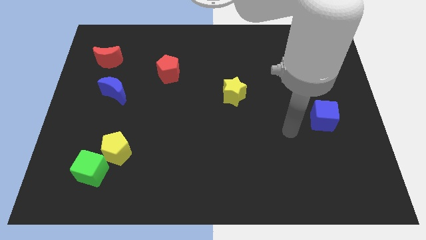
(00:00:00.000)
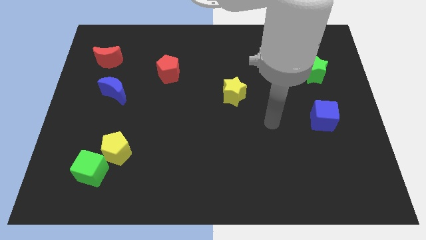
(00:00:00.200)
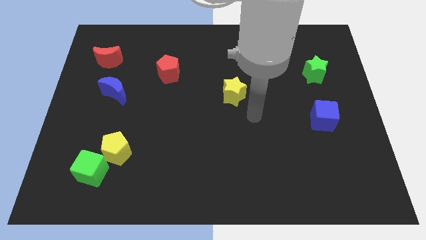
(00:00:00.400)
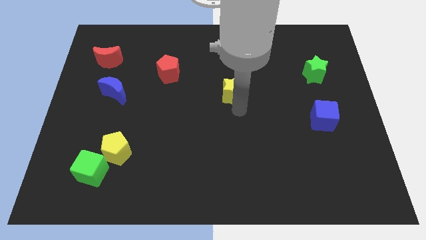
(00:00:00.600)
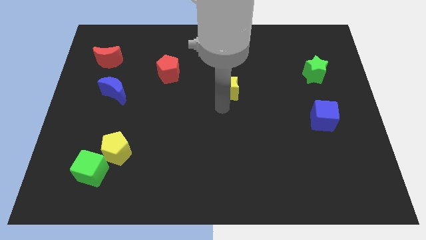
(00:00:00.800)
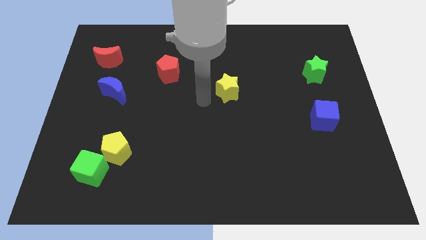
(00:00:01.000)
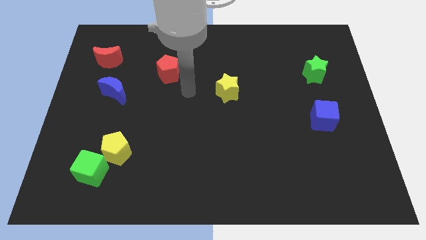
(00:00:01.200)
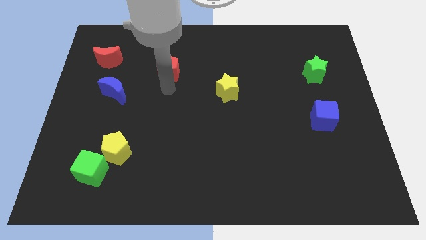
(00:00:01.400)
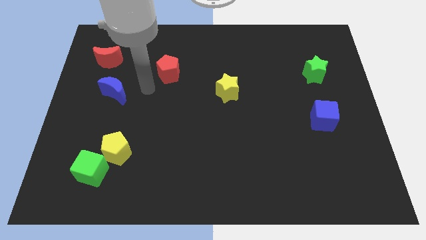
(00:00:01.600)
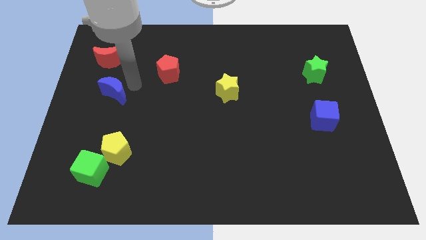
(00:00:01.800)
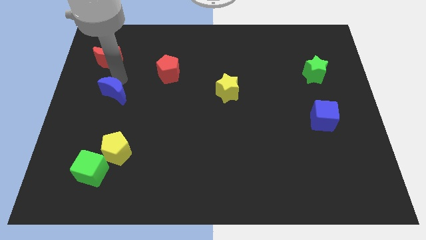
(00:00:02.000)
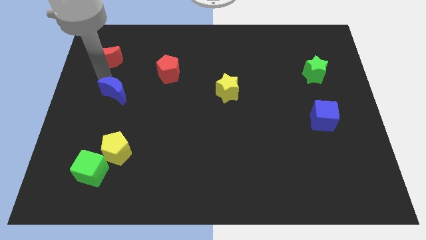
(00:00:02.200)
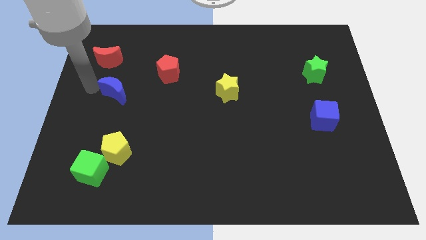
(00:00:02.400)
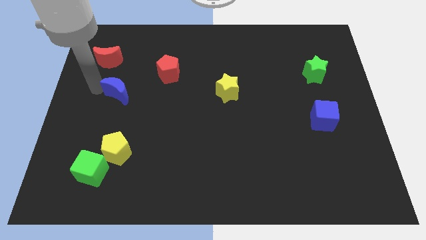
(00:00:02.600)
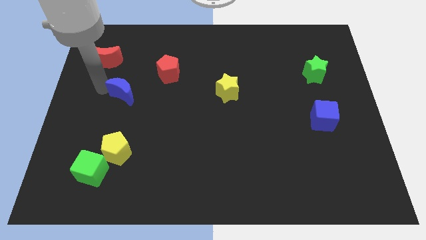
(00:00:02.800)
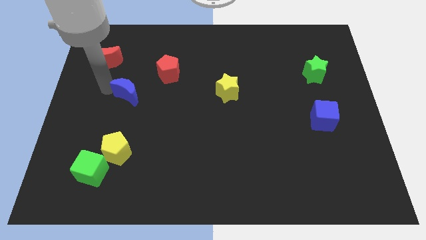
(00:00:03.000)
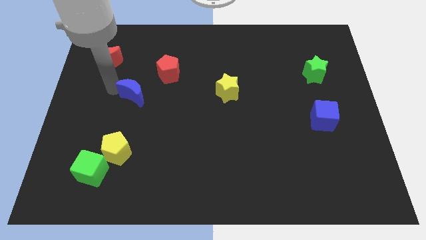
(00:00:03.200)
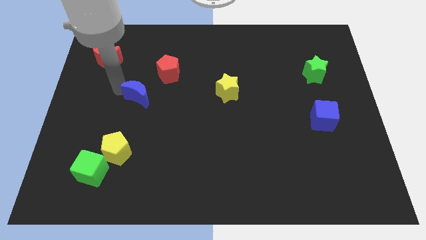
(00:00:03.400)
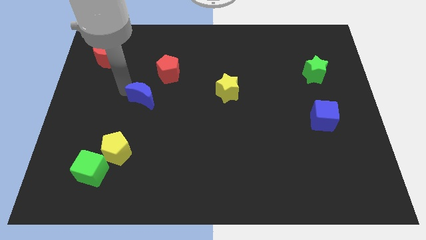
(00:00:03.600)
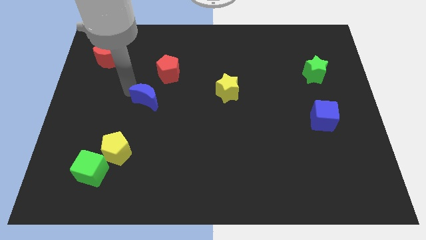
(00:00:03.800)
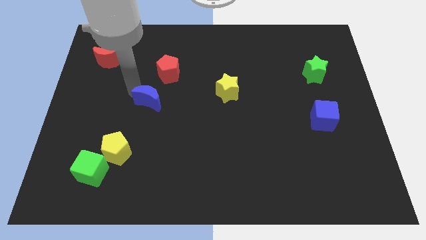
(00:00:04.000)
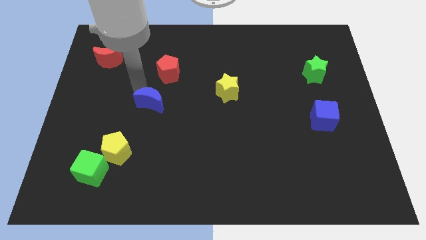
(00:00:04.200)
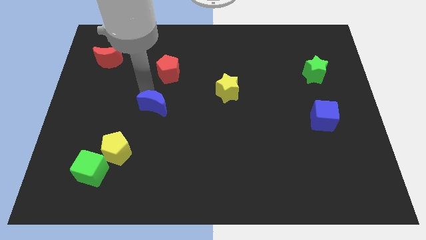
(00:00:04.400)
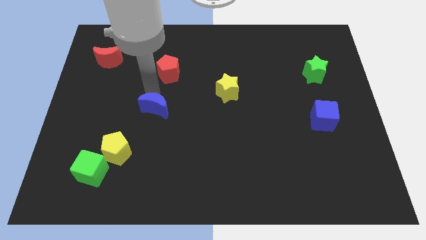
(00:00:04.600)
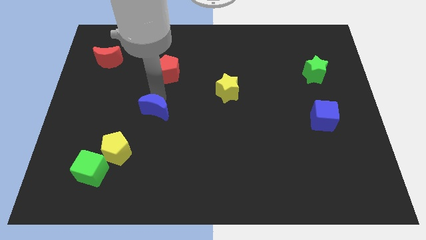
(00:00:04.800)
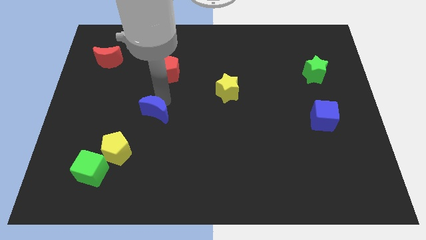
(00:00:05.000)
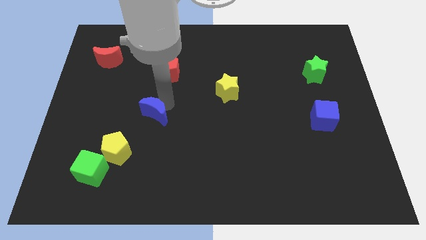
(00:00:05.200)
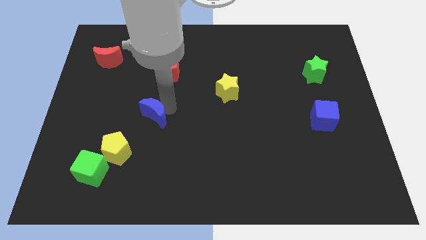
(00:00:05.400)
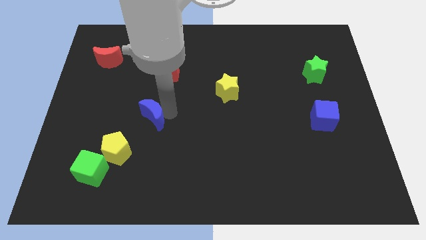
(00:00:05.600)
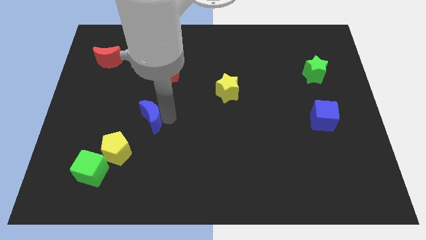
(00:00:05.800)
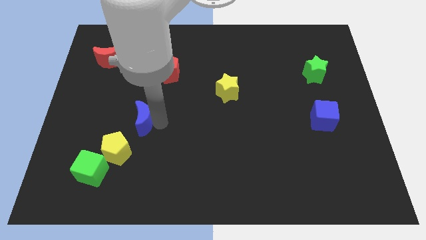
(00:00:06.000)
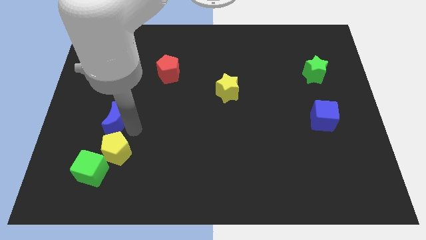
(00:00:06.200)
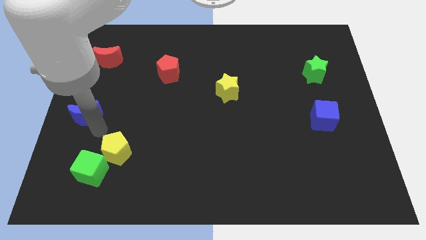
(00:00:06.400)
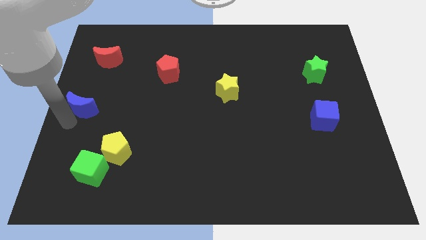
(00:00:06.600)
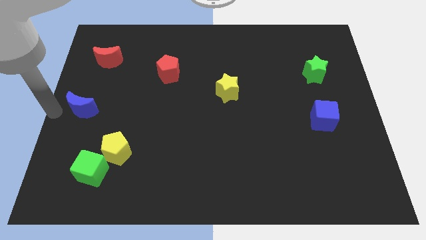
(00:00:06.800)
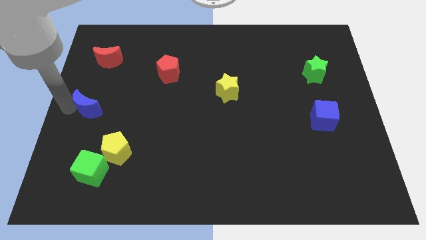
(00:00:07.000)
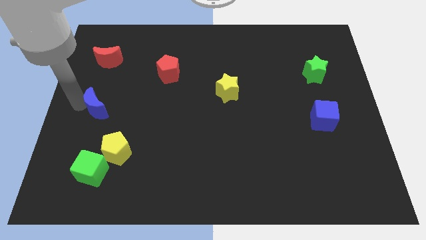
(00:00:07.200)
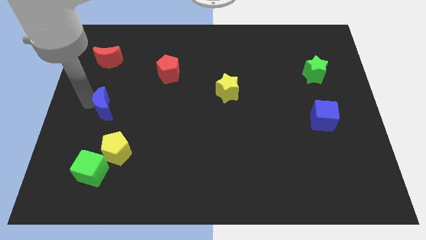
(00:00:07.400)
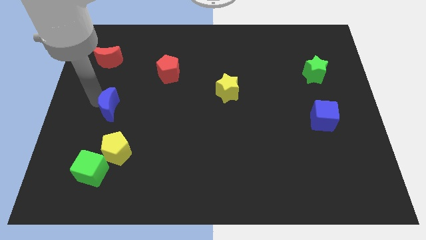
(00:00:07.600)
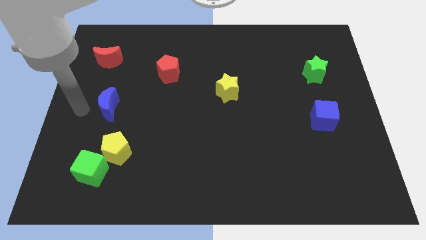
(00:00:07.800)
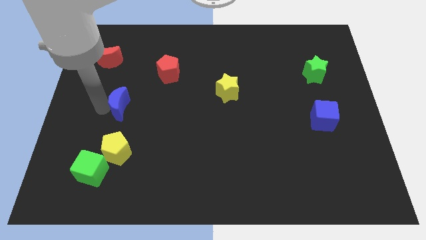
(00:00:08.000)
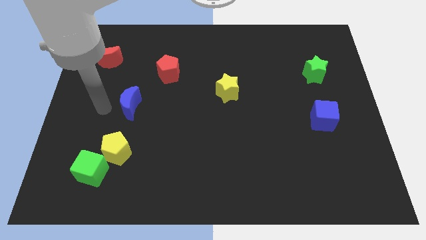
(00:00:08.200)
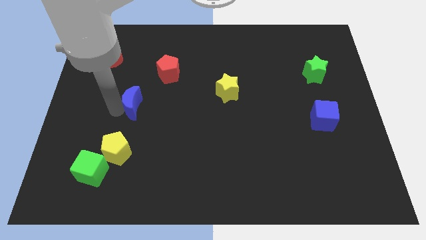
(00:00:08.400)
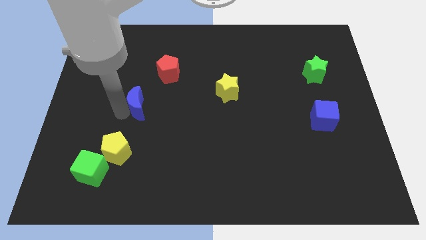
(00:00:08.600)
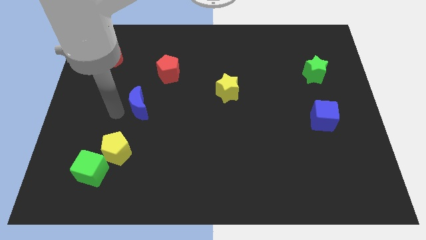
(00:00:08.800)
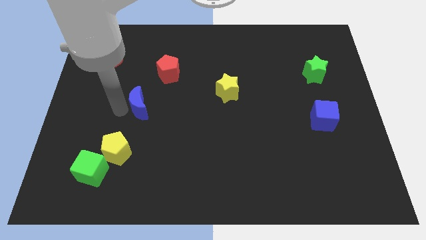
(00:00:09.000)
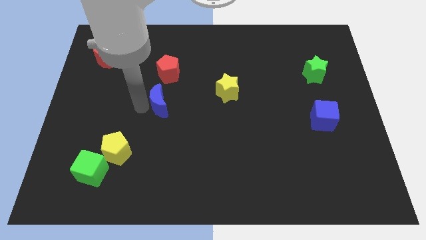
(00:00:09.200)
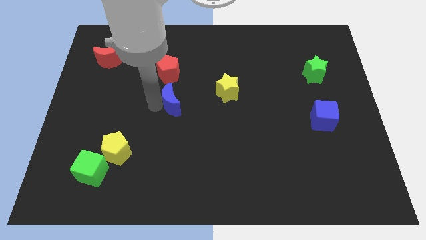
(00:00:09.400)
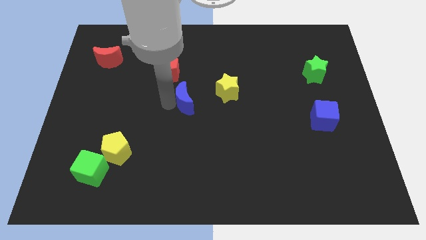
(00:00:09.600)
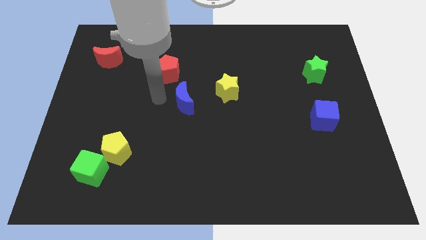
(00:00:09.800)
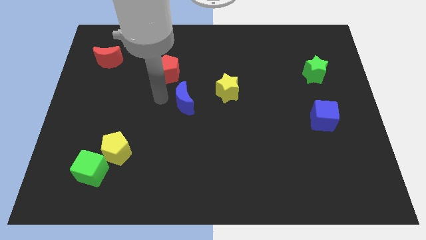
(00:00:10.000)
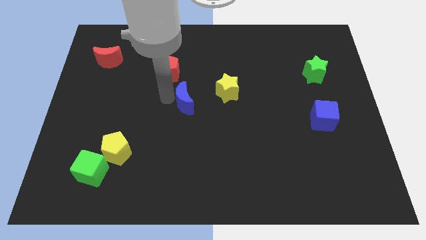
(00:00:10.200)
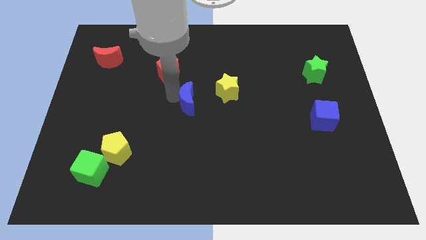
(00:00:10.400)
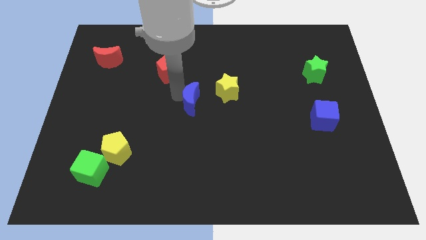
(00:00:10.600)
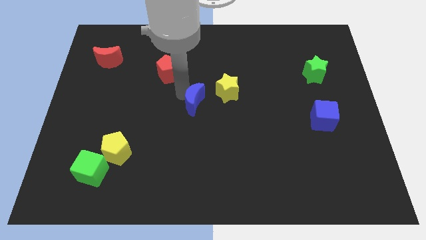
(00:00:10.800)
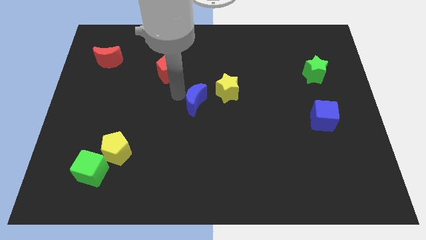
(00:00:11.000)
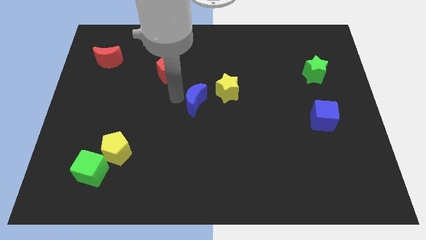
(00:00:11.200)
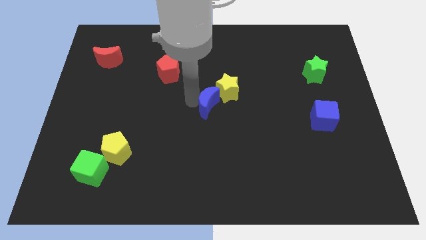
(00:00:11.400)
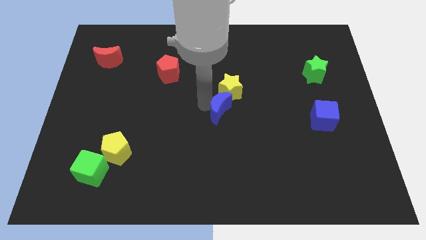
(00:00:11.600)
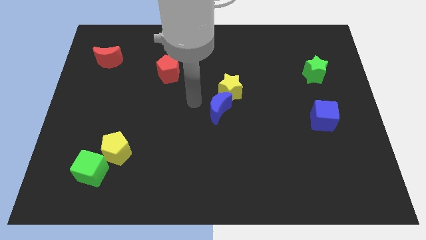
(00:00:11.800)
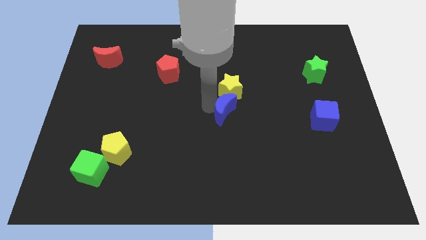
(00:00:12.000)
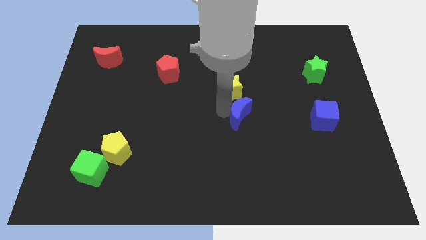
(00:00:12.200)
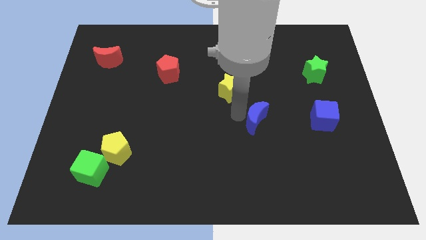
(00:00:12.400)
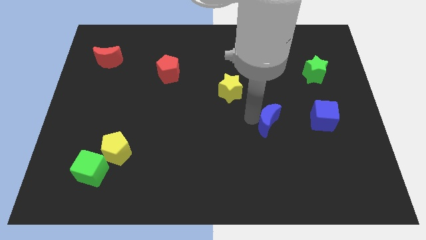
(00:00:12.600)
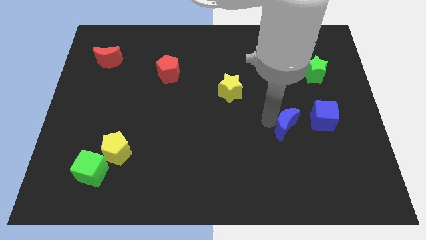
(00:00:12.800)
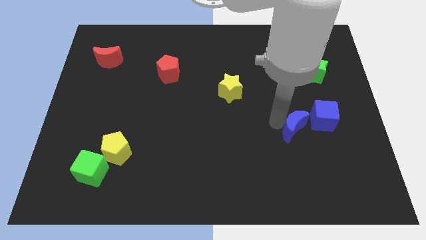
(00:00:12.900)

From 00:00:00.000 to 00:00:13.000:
push the blue moon to the bottom left side of the blue cube
